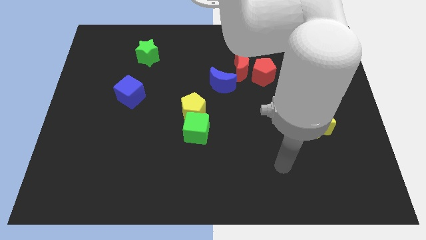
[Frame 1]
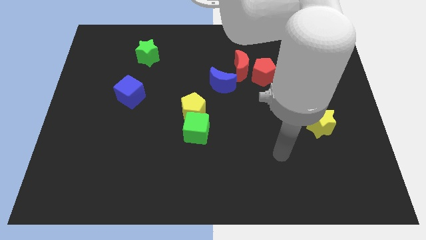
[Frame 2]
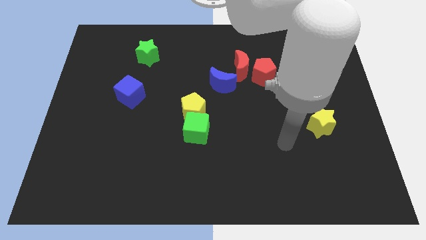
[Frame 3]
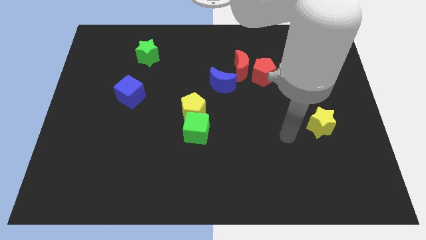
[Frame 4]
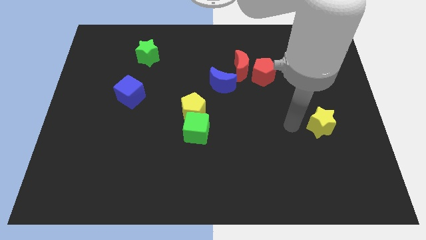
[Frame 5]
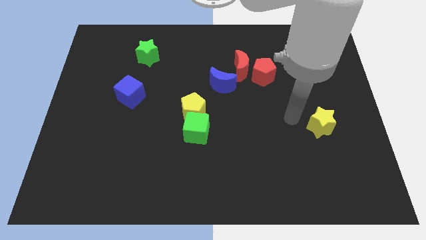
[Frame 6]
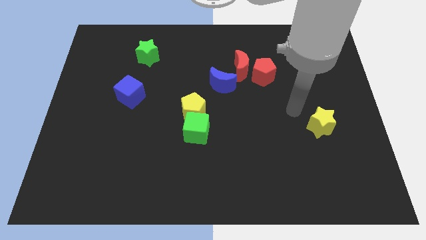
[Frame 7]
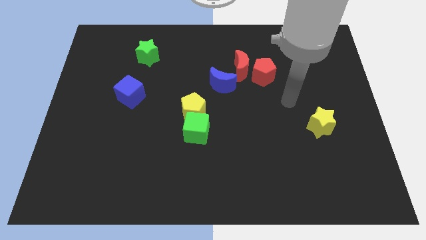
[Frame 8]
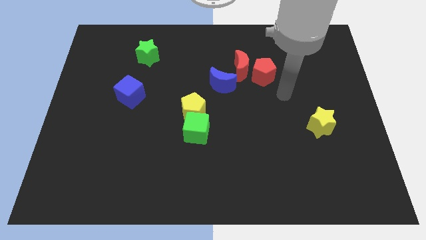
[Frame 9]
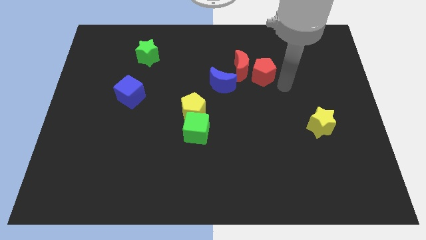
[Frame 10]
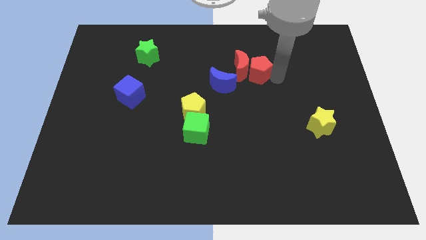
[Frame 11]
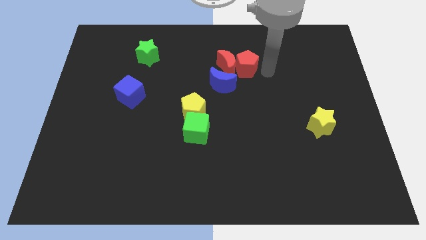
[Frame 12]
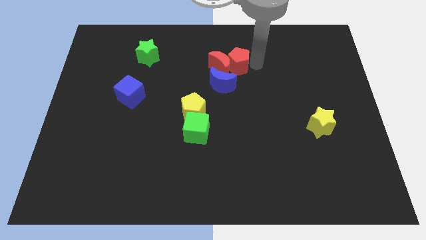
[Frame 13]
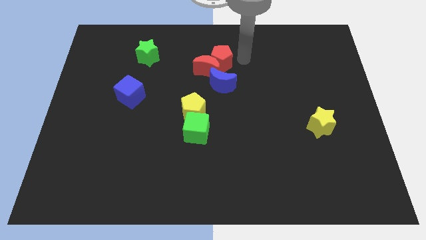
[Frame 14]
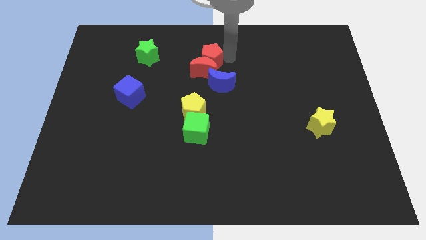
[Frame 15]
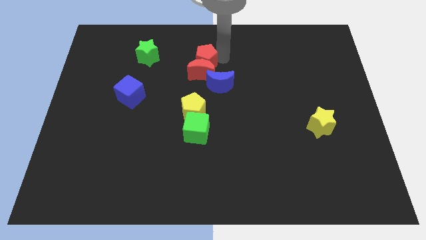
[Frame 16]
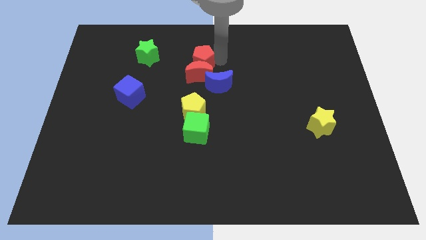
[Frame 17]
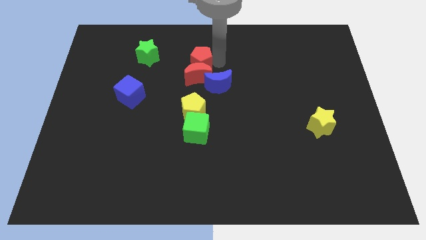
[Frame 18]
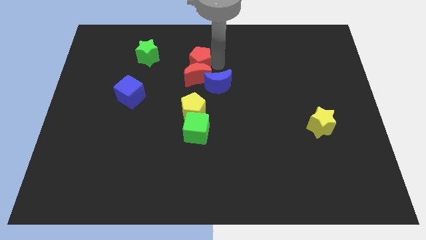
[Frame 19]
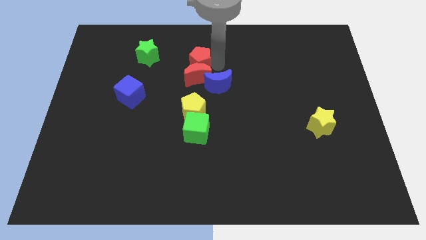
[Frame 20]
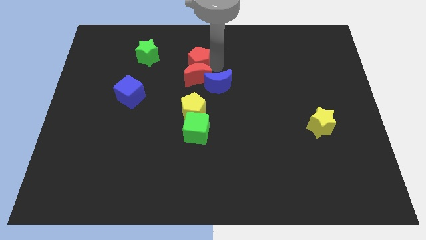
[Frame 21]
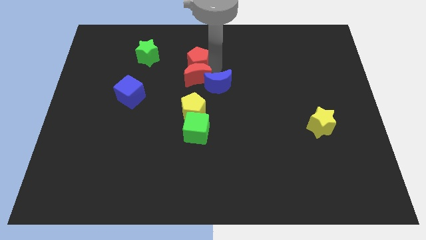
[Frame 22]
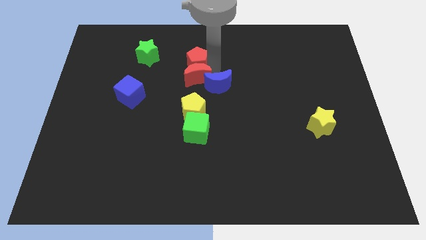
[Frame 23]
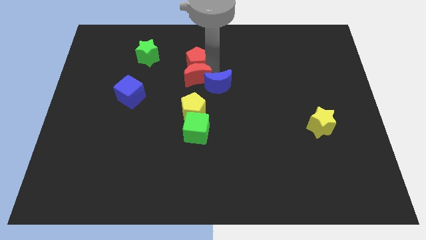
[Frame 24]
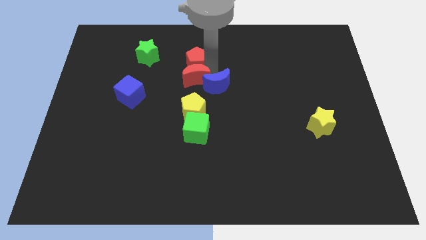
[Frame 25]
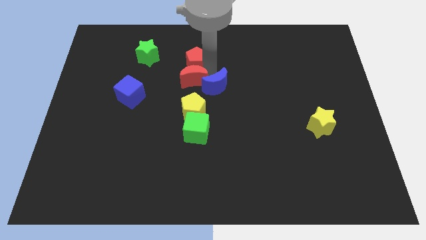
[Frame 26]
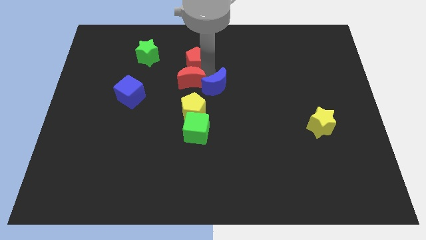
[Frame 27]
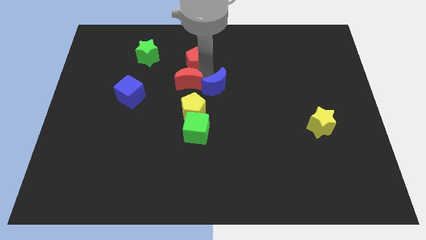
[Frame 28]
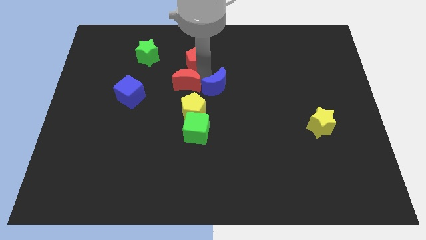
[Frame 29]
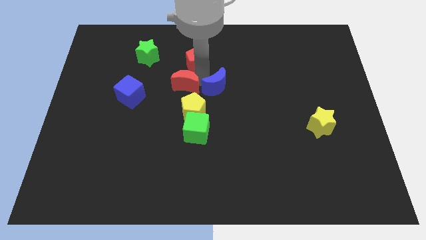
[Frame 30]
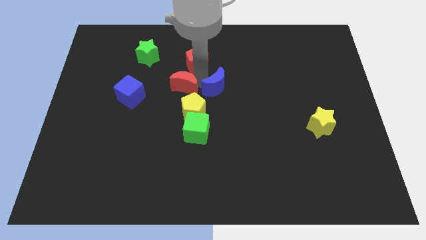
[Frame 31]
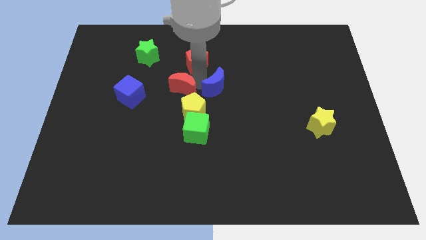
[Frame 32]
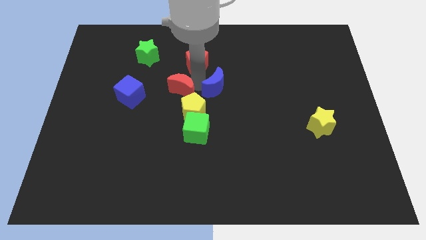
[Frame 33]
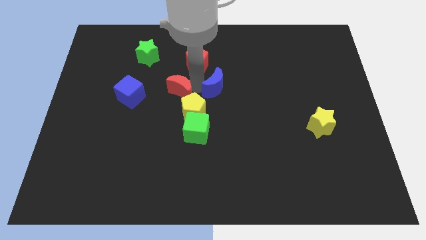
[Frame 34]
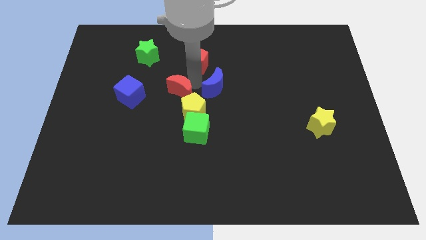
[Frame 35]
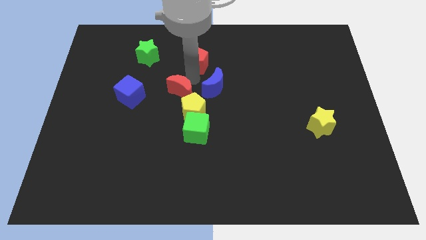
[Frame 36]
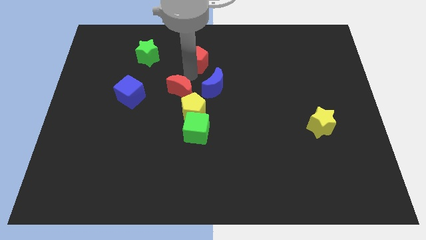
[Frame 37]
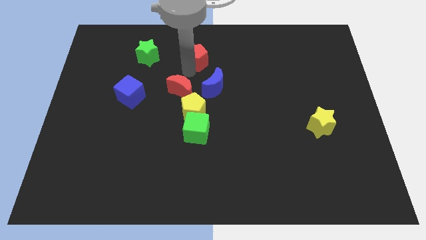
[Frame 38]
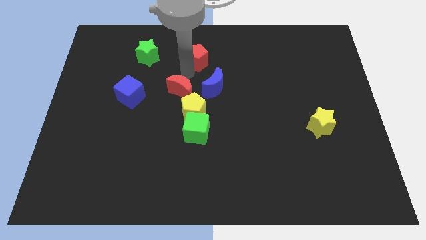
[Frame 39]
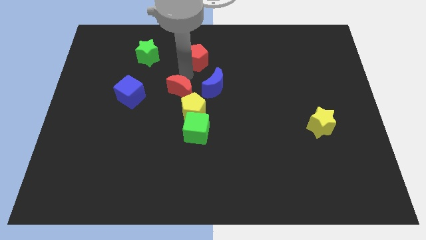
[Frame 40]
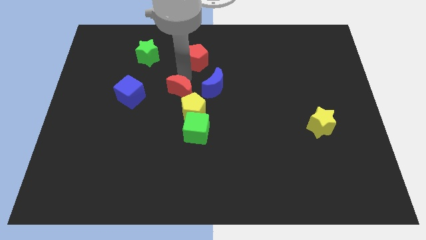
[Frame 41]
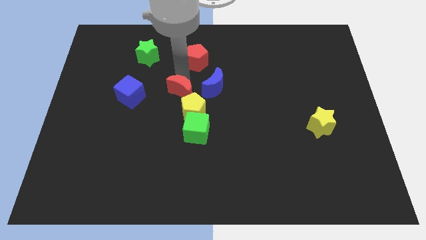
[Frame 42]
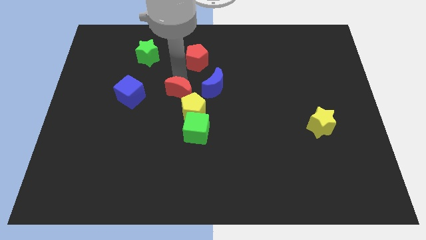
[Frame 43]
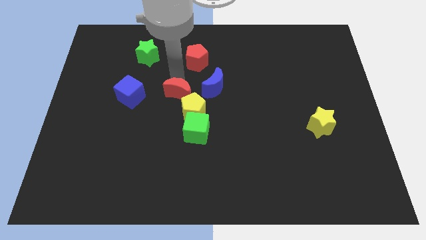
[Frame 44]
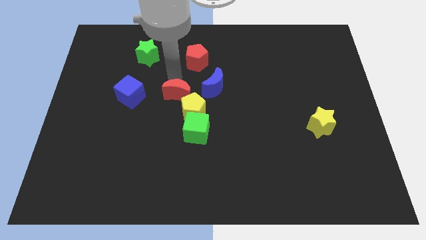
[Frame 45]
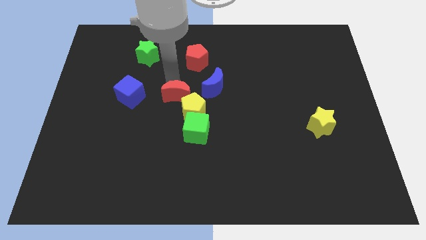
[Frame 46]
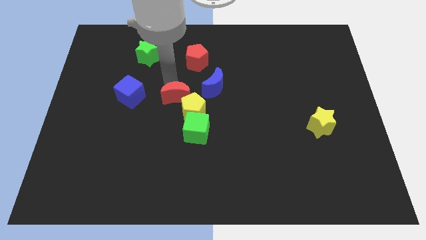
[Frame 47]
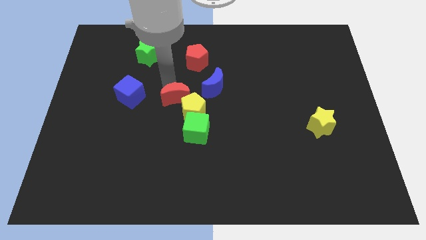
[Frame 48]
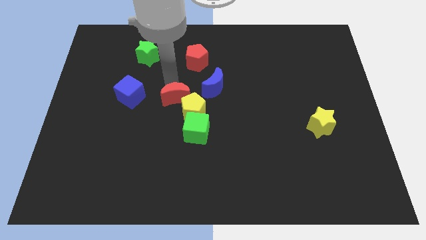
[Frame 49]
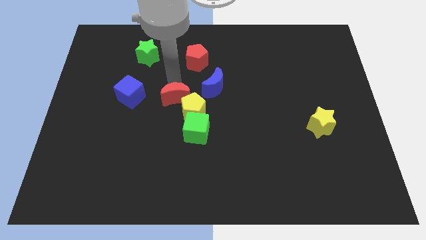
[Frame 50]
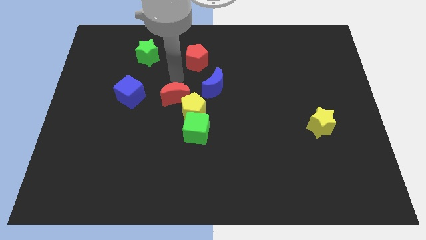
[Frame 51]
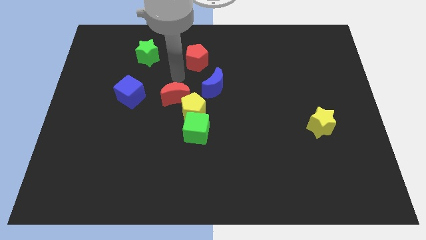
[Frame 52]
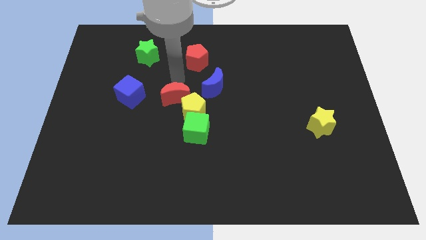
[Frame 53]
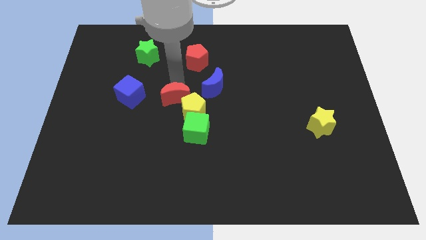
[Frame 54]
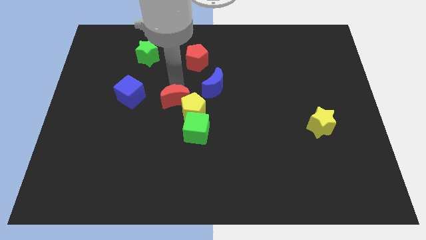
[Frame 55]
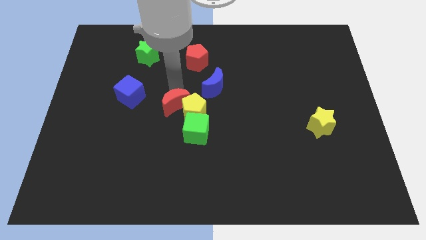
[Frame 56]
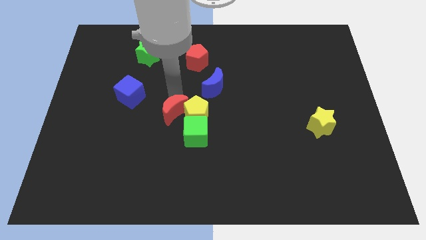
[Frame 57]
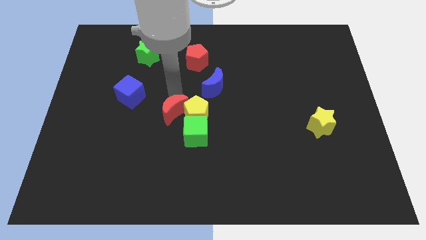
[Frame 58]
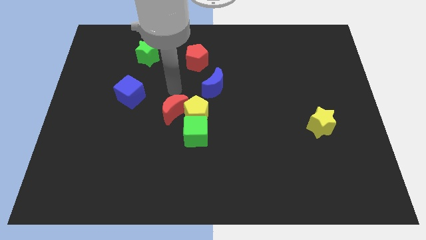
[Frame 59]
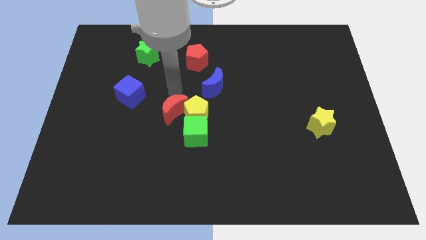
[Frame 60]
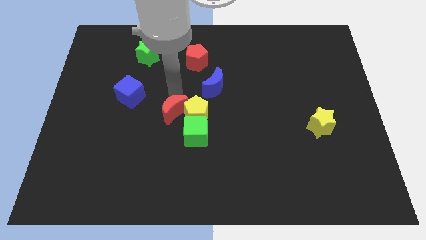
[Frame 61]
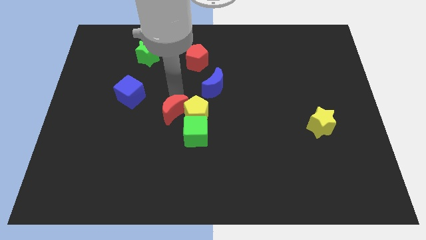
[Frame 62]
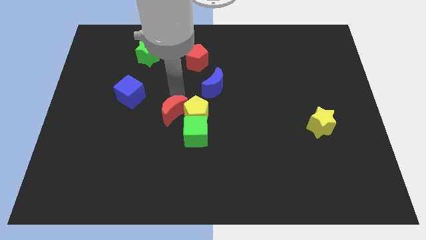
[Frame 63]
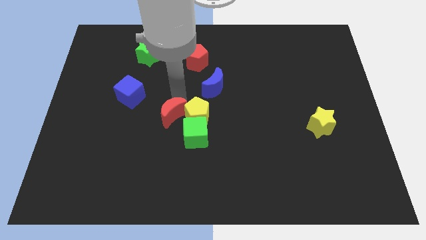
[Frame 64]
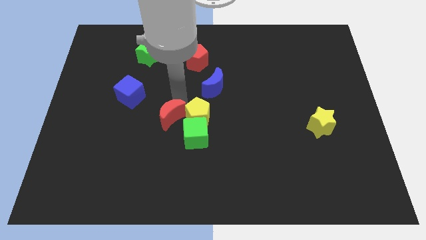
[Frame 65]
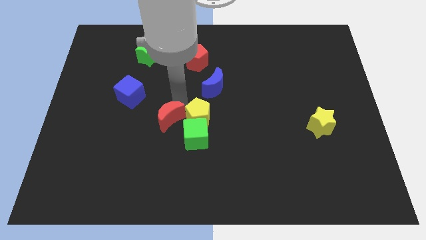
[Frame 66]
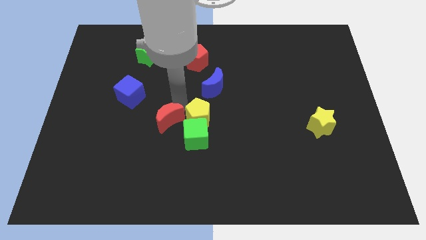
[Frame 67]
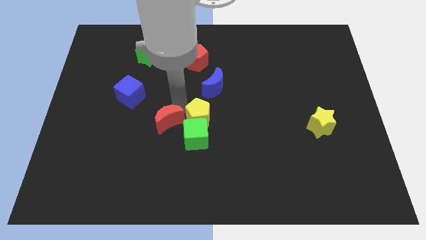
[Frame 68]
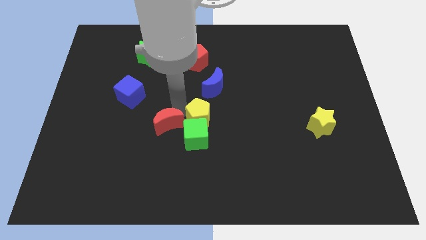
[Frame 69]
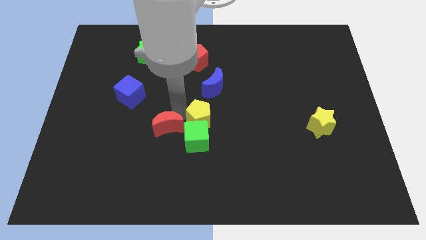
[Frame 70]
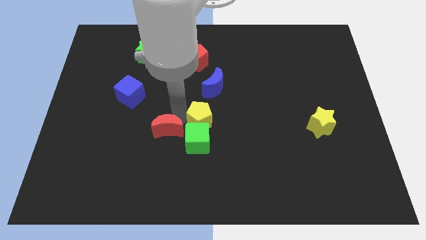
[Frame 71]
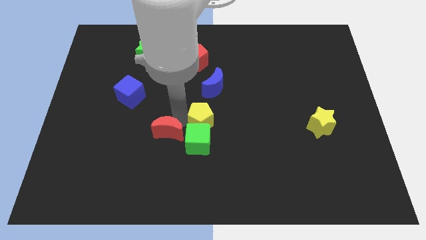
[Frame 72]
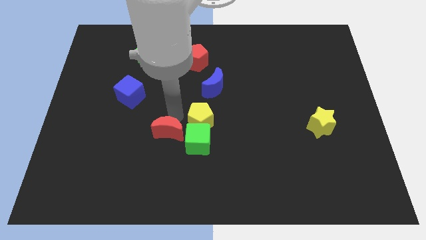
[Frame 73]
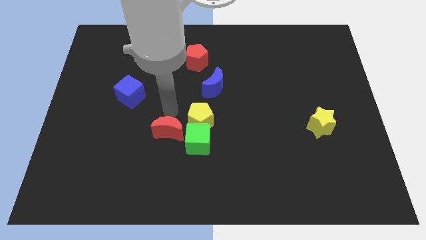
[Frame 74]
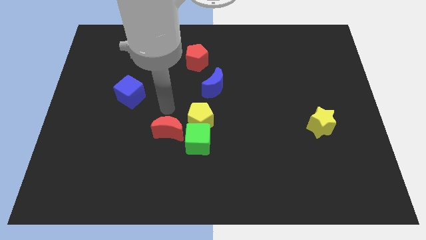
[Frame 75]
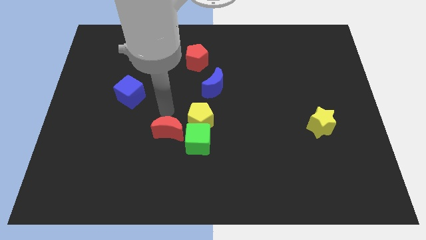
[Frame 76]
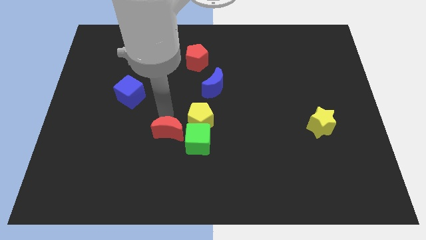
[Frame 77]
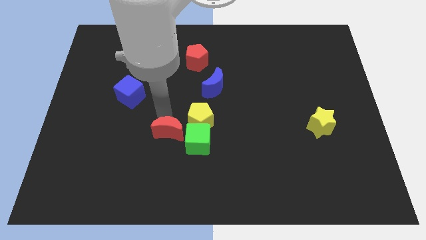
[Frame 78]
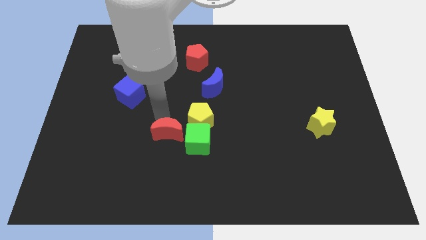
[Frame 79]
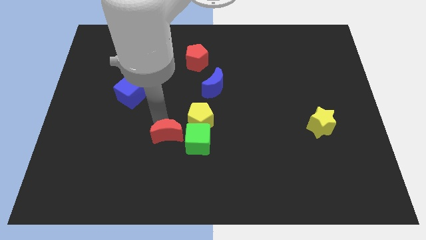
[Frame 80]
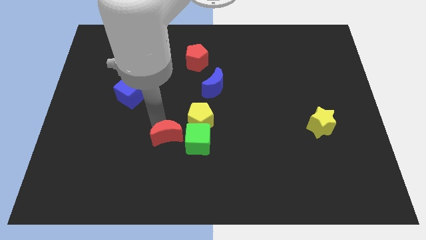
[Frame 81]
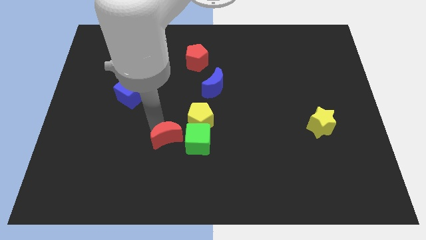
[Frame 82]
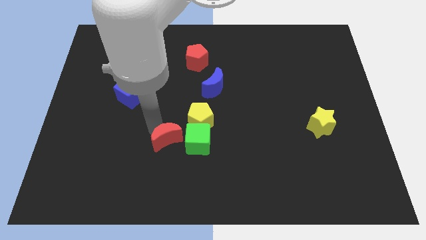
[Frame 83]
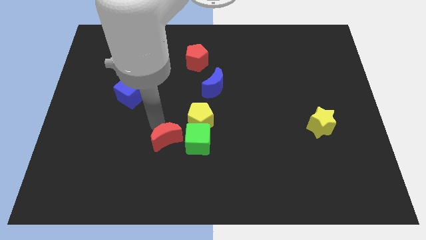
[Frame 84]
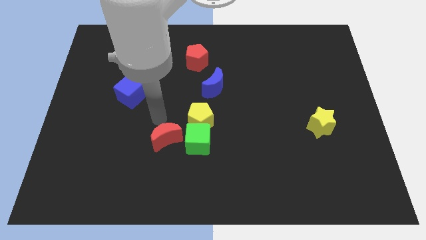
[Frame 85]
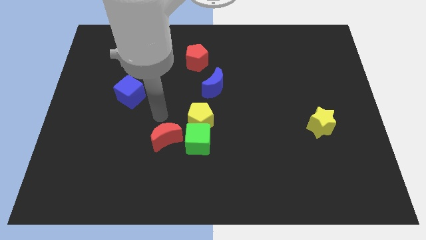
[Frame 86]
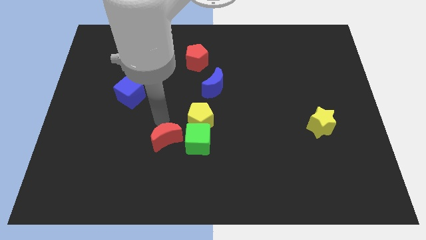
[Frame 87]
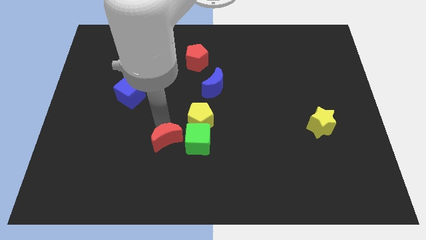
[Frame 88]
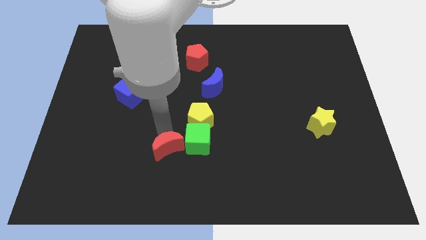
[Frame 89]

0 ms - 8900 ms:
slide the red moon diagonally down and to the left of the green cube
